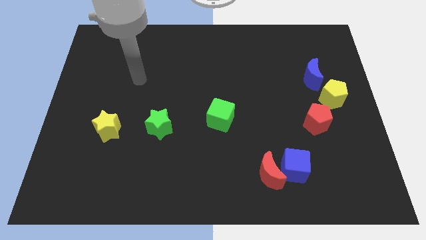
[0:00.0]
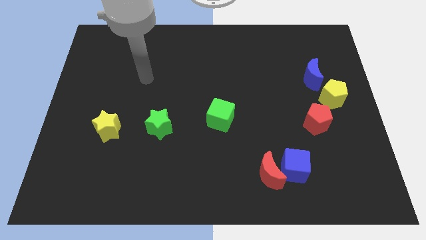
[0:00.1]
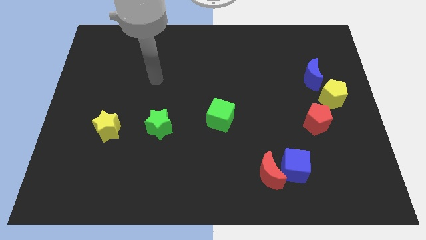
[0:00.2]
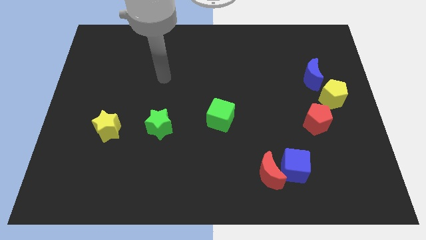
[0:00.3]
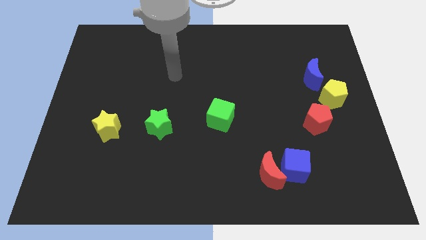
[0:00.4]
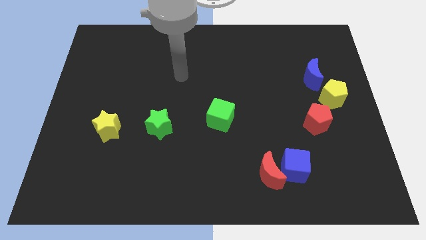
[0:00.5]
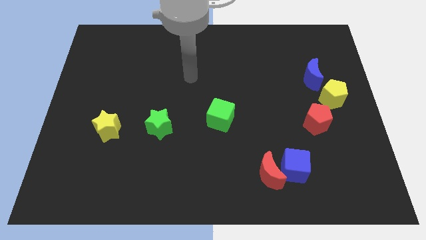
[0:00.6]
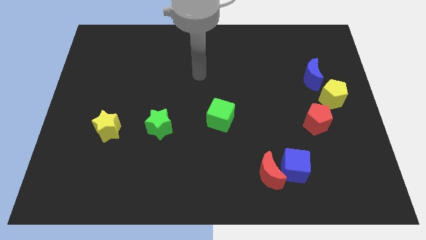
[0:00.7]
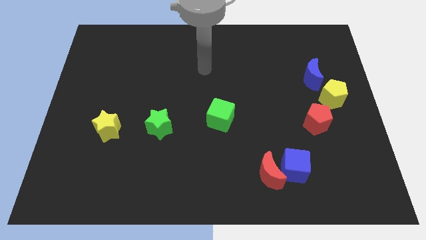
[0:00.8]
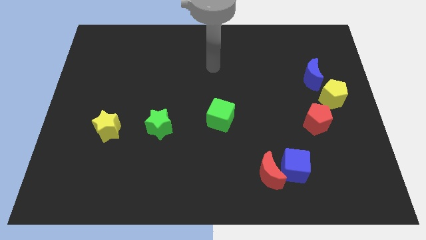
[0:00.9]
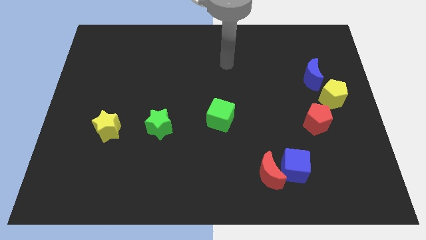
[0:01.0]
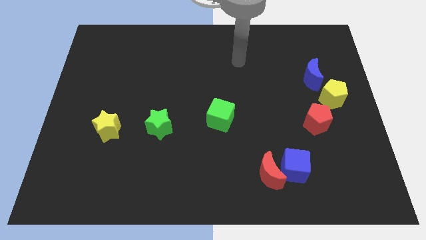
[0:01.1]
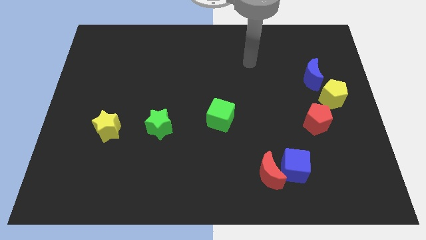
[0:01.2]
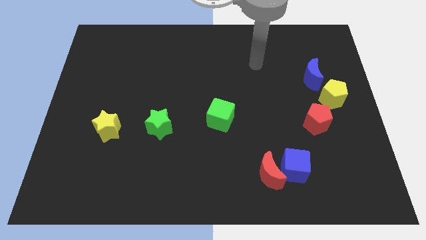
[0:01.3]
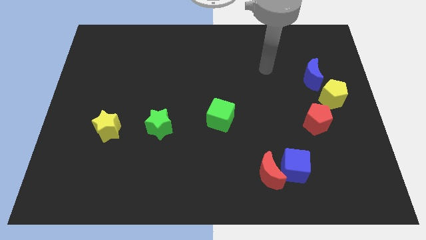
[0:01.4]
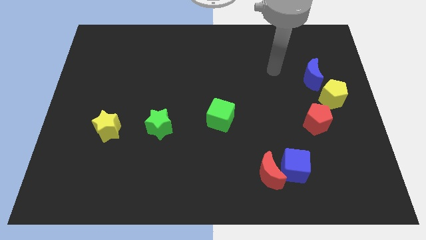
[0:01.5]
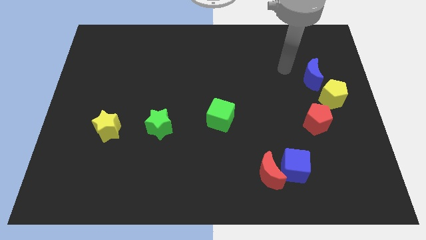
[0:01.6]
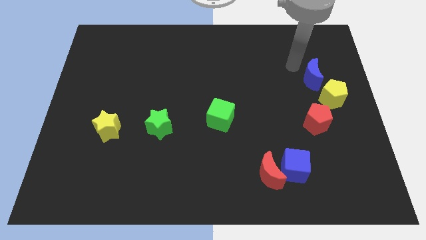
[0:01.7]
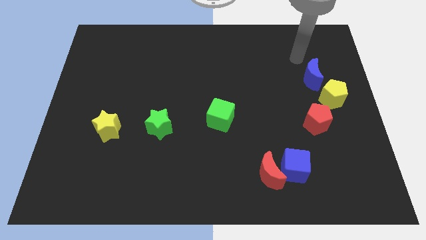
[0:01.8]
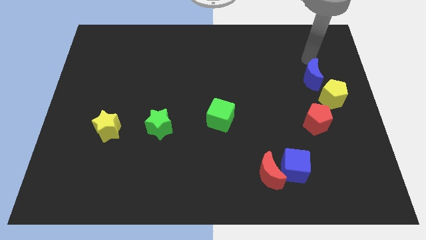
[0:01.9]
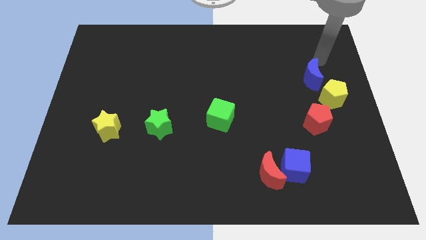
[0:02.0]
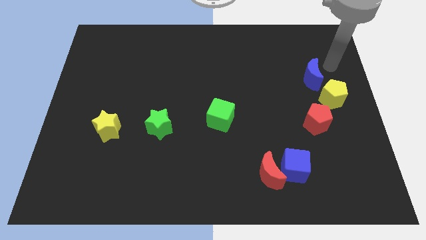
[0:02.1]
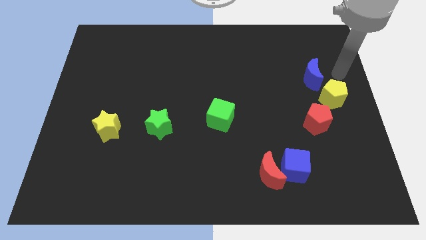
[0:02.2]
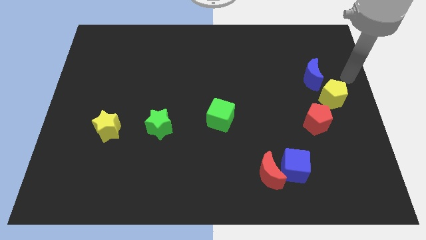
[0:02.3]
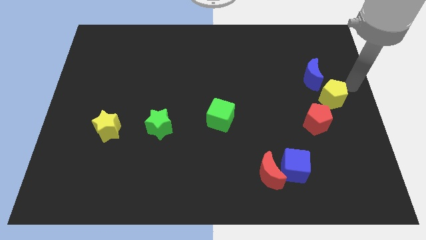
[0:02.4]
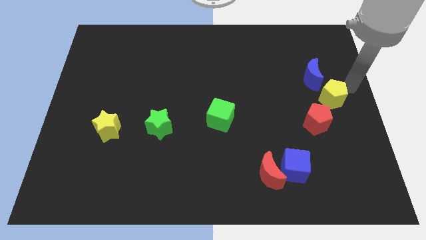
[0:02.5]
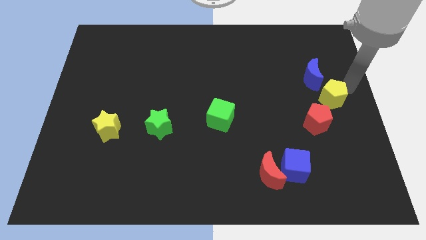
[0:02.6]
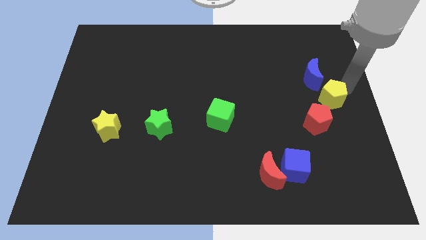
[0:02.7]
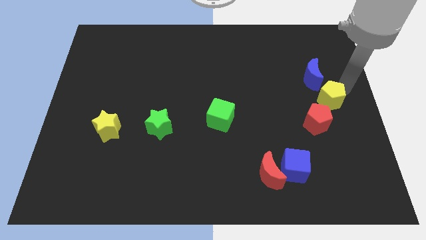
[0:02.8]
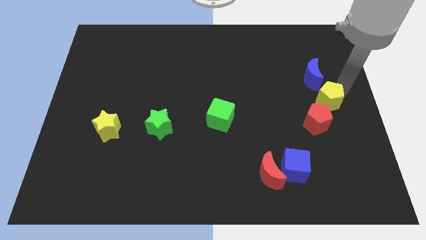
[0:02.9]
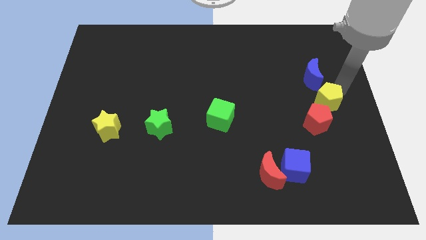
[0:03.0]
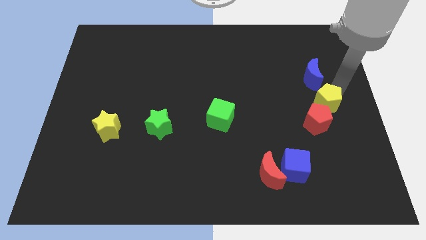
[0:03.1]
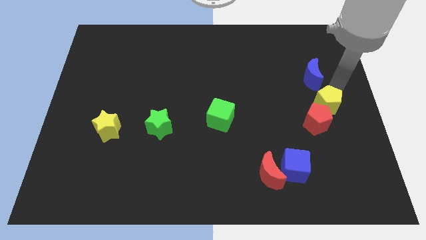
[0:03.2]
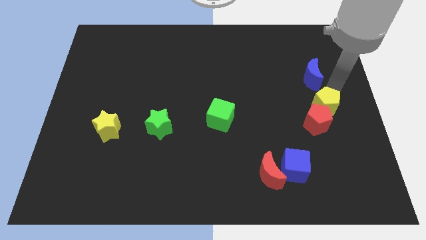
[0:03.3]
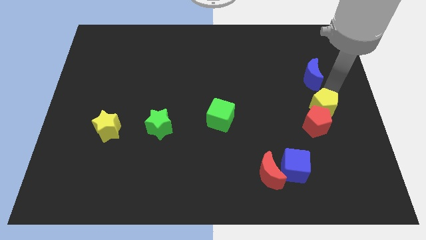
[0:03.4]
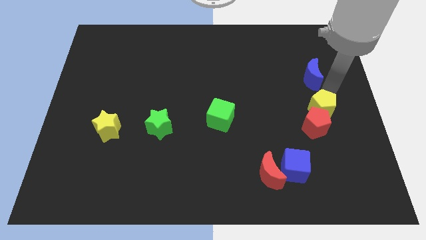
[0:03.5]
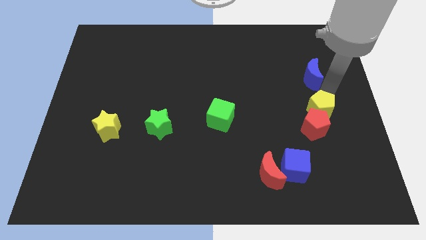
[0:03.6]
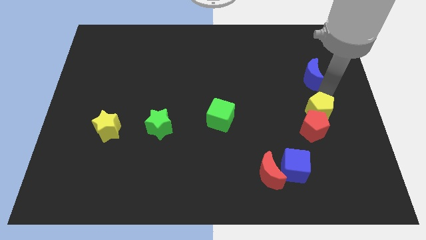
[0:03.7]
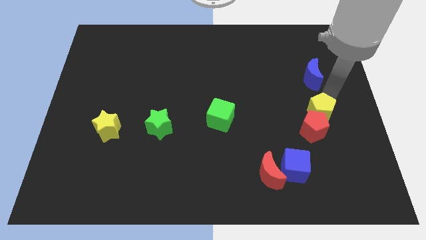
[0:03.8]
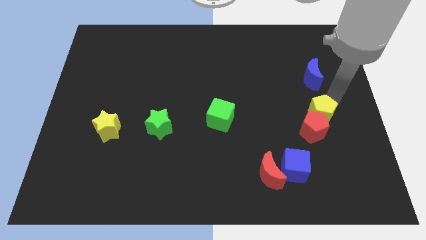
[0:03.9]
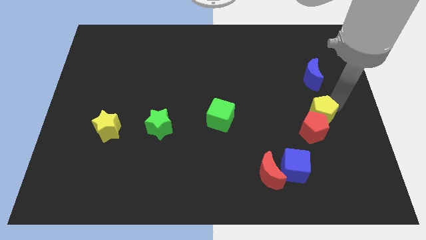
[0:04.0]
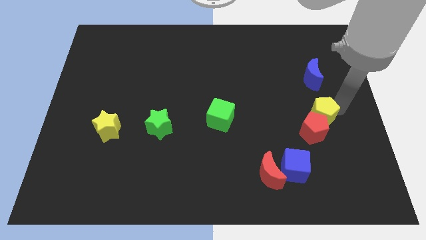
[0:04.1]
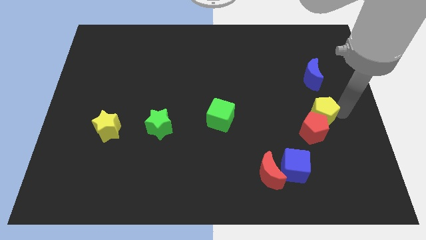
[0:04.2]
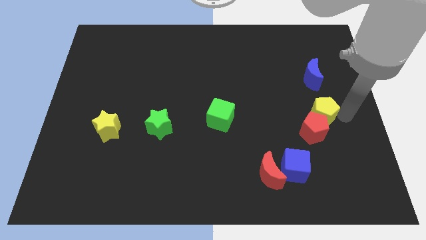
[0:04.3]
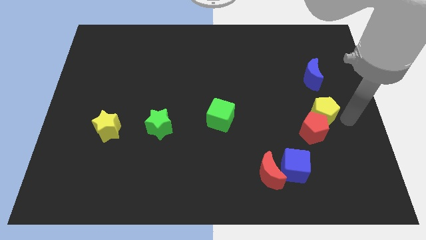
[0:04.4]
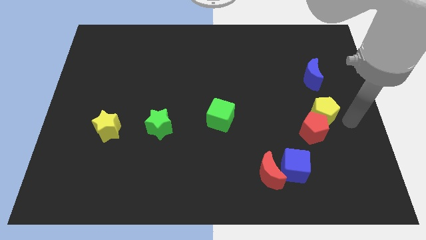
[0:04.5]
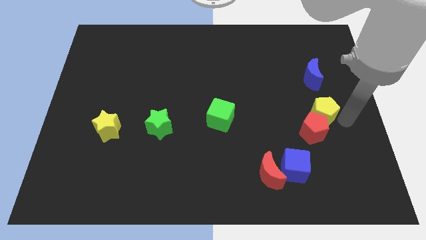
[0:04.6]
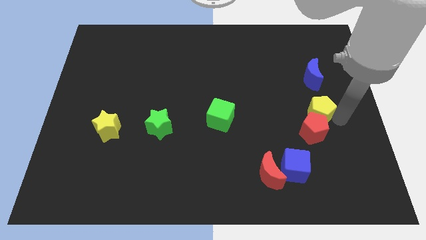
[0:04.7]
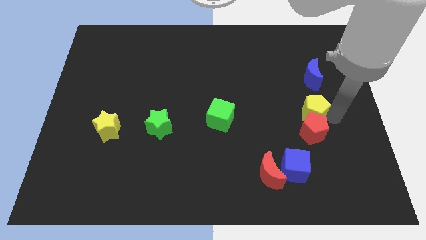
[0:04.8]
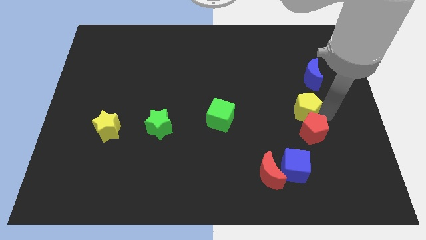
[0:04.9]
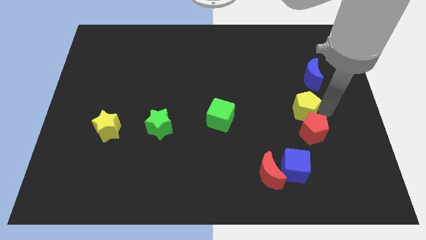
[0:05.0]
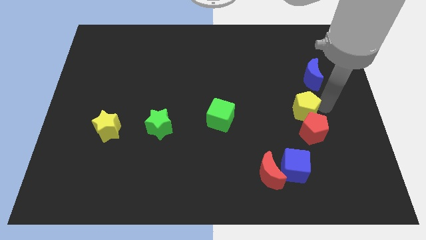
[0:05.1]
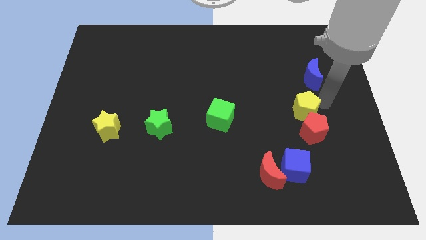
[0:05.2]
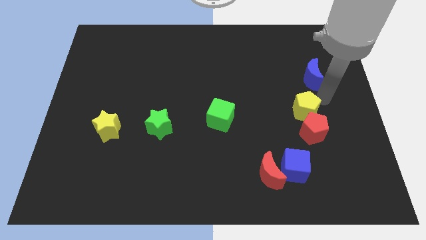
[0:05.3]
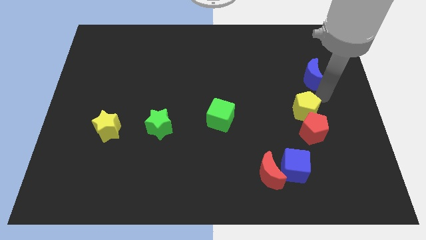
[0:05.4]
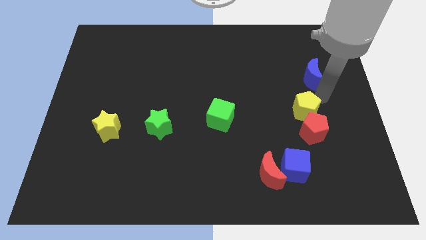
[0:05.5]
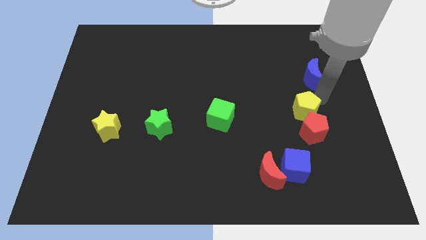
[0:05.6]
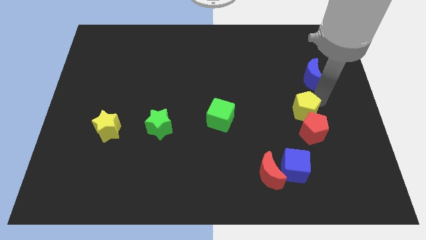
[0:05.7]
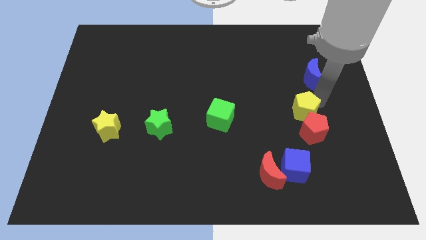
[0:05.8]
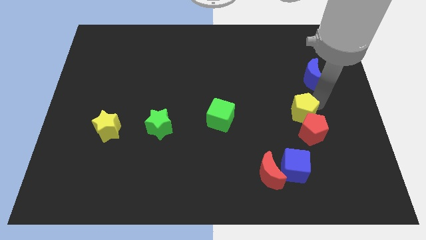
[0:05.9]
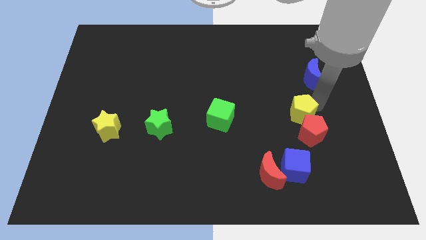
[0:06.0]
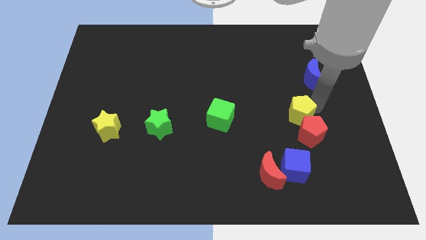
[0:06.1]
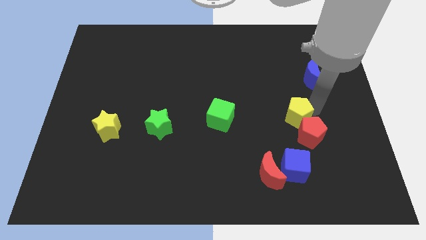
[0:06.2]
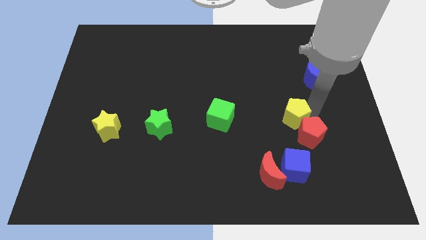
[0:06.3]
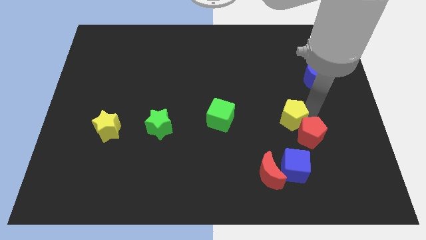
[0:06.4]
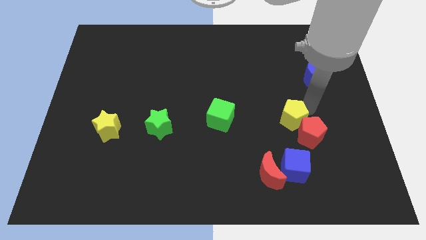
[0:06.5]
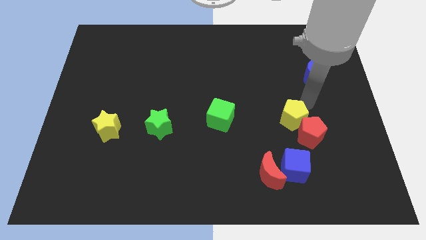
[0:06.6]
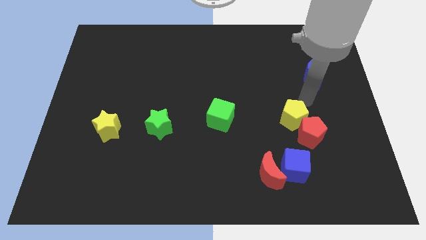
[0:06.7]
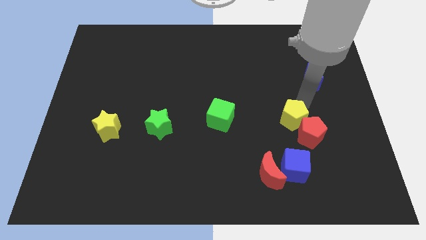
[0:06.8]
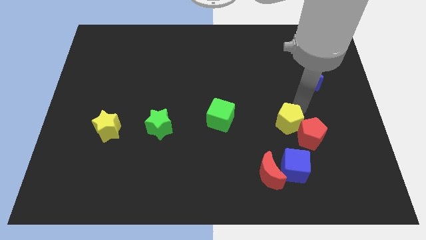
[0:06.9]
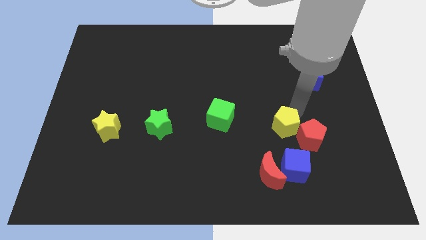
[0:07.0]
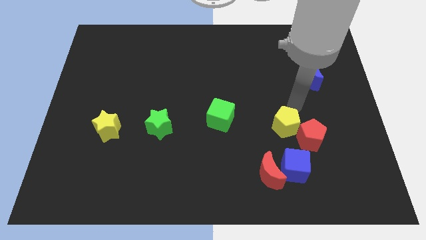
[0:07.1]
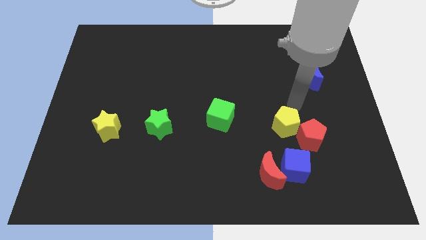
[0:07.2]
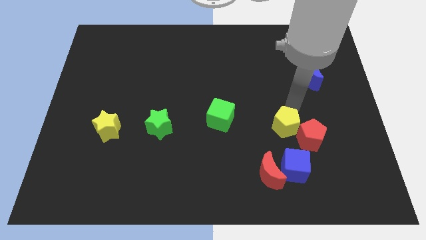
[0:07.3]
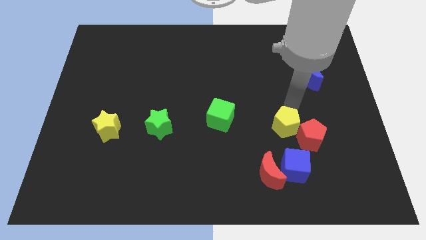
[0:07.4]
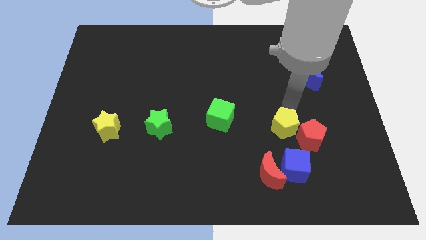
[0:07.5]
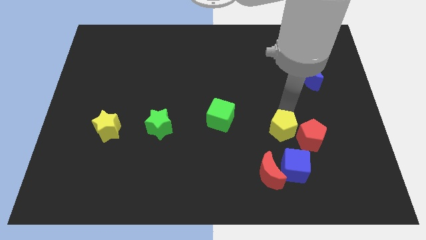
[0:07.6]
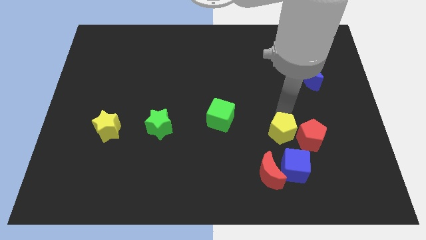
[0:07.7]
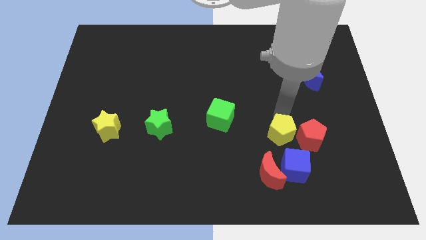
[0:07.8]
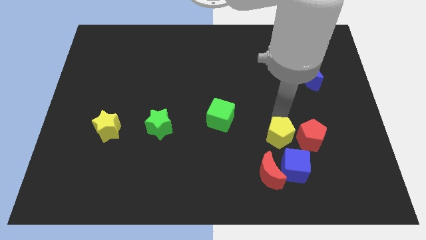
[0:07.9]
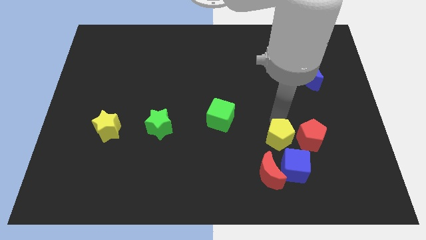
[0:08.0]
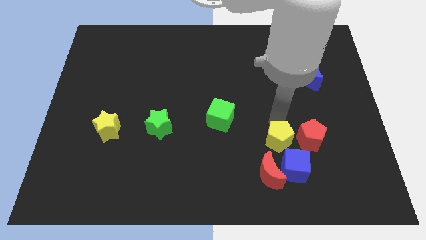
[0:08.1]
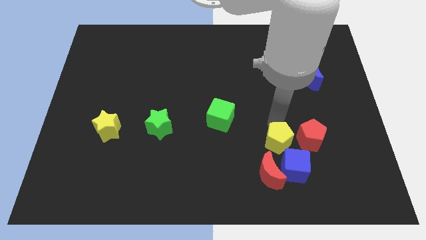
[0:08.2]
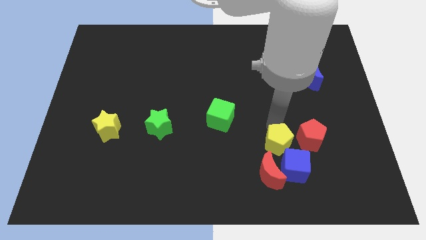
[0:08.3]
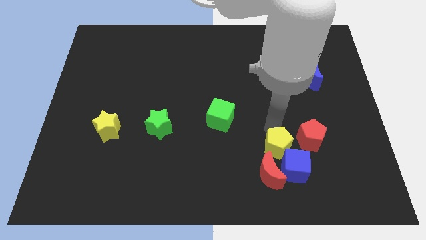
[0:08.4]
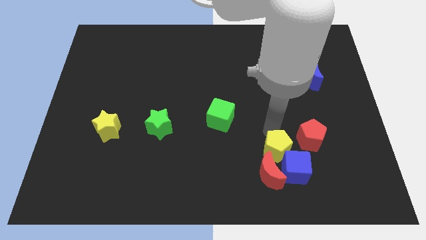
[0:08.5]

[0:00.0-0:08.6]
slide the yellow pentagon next to the red moon
